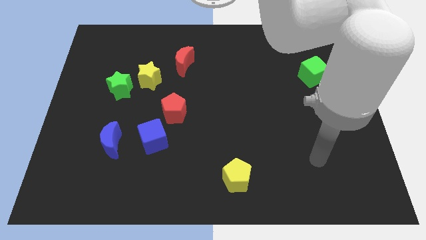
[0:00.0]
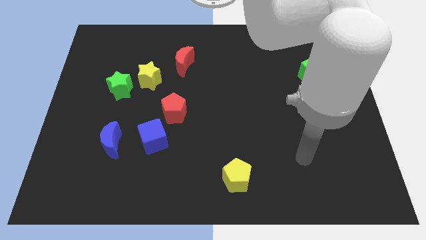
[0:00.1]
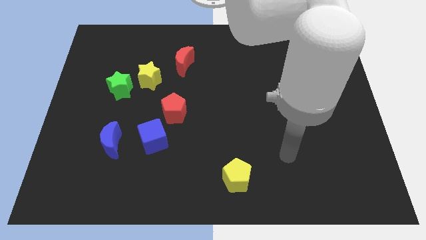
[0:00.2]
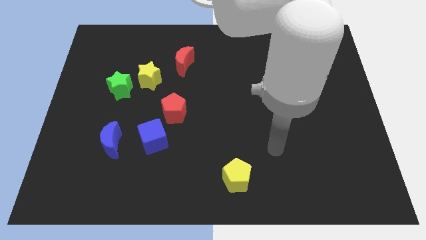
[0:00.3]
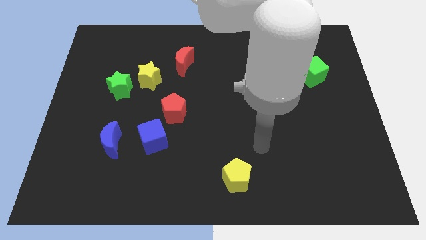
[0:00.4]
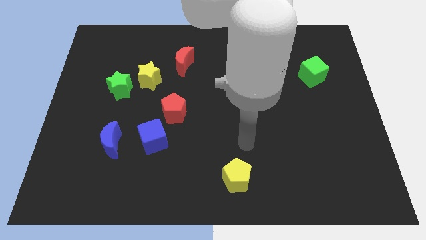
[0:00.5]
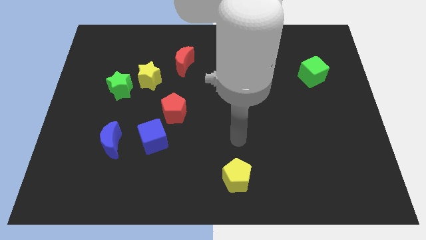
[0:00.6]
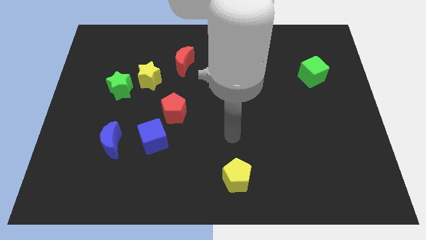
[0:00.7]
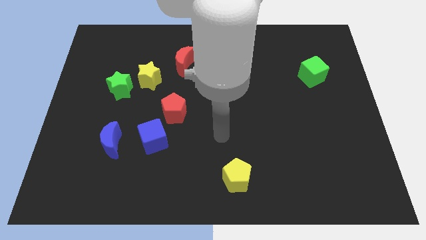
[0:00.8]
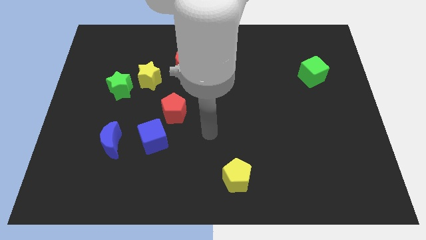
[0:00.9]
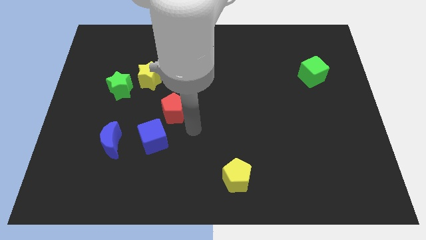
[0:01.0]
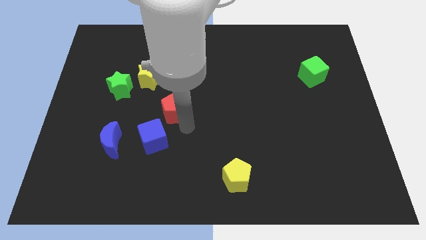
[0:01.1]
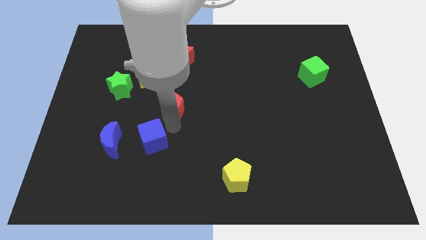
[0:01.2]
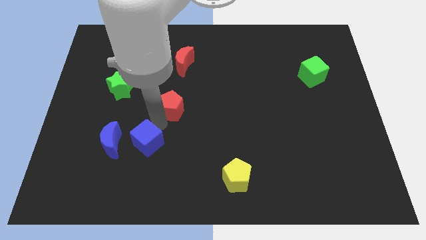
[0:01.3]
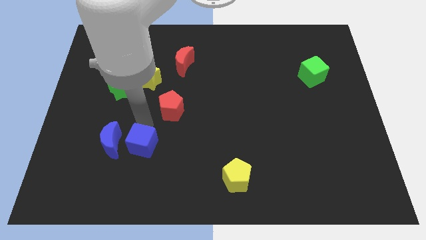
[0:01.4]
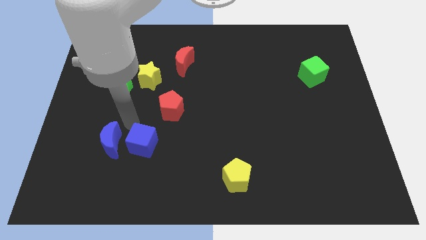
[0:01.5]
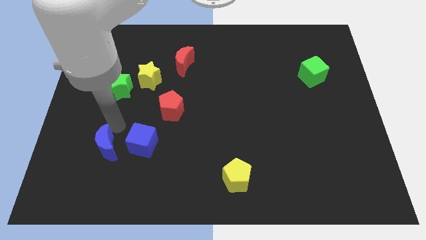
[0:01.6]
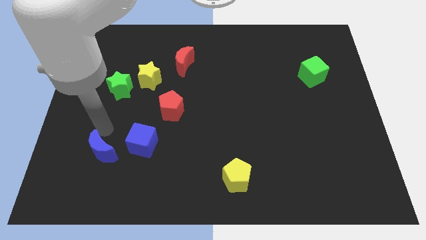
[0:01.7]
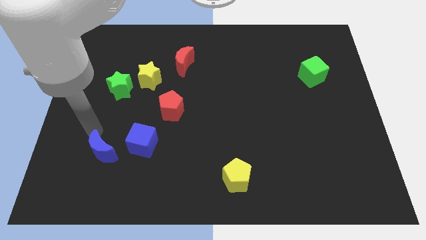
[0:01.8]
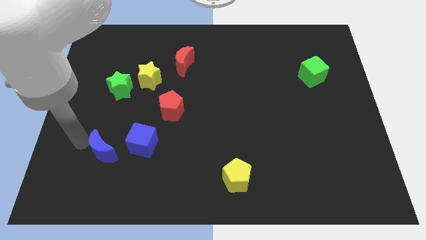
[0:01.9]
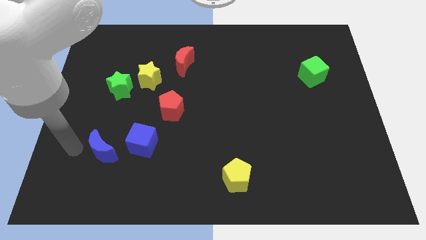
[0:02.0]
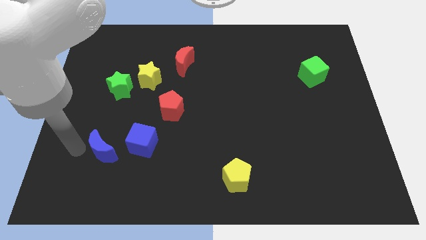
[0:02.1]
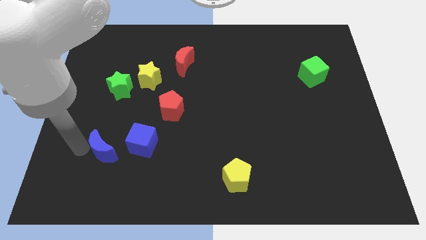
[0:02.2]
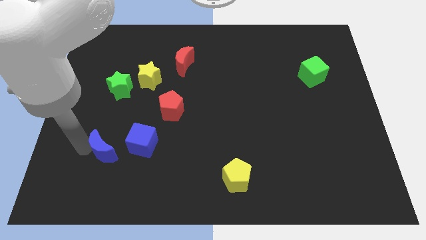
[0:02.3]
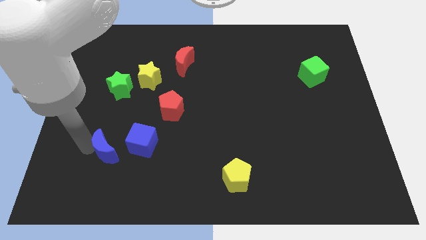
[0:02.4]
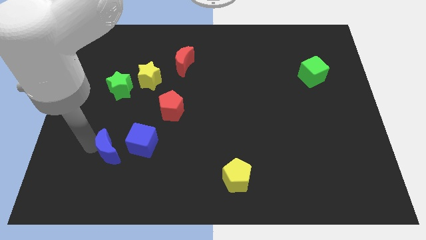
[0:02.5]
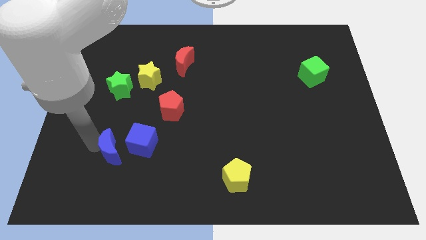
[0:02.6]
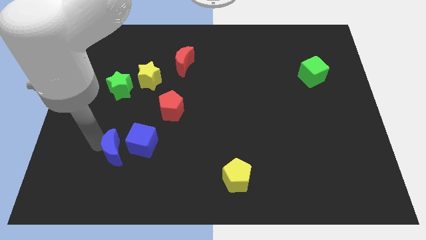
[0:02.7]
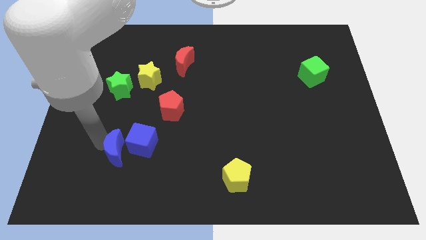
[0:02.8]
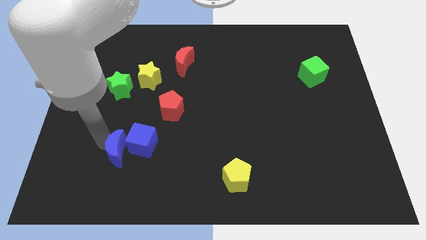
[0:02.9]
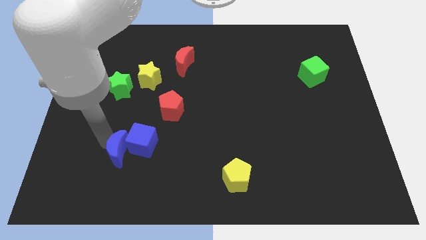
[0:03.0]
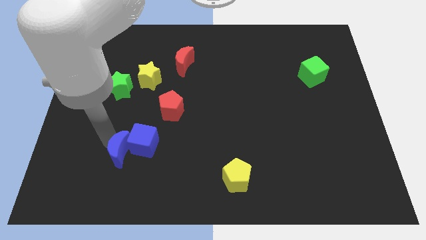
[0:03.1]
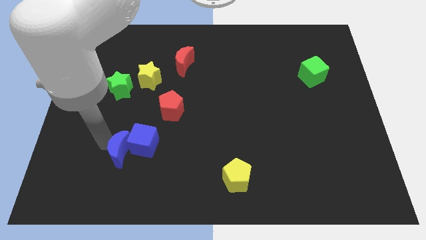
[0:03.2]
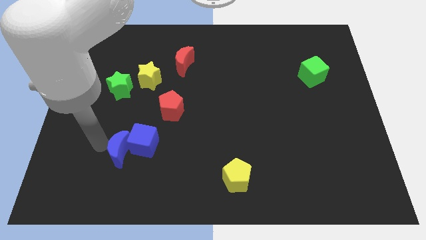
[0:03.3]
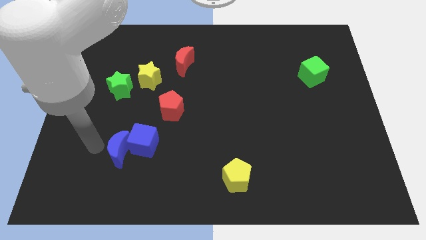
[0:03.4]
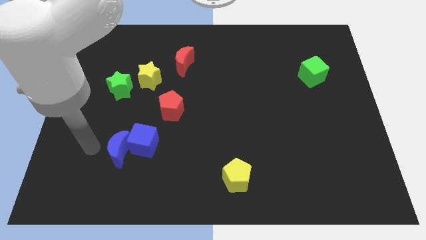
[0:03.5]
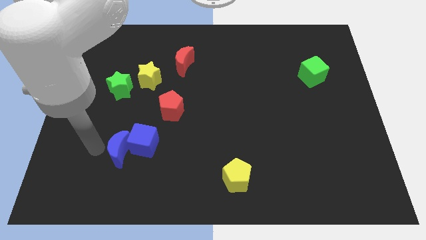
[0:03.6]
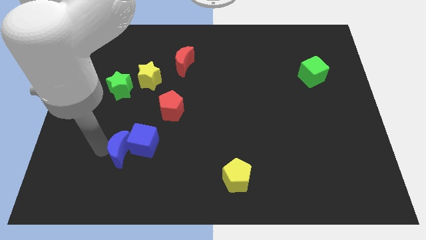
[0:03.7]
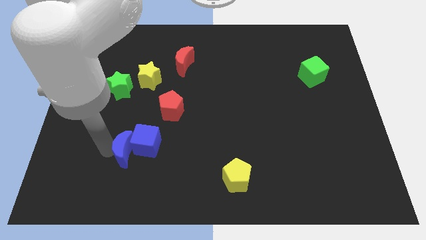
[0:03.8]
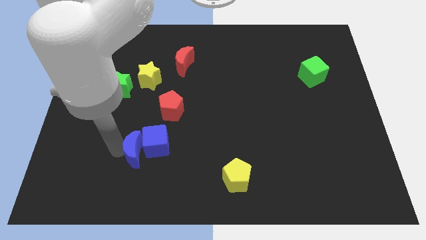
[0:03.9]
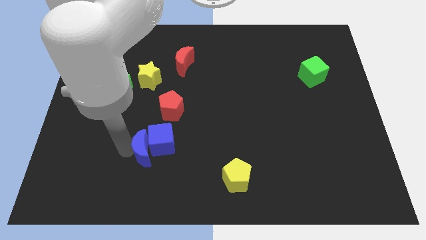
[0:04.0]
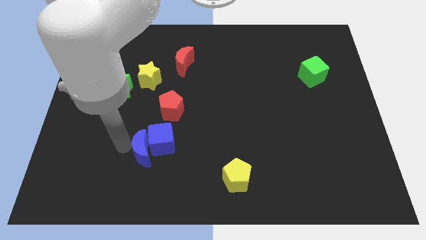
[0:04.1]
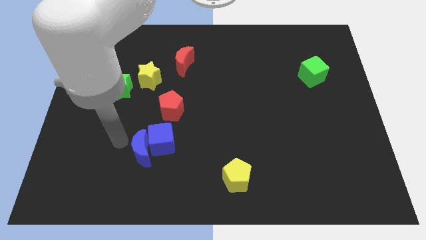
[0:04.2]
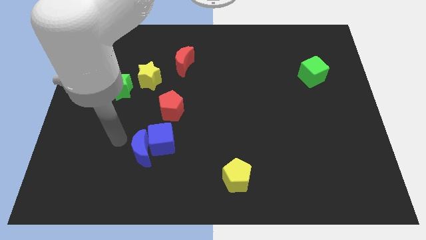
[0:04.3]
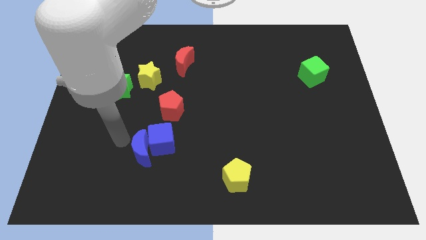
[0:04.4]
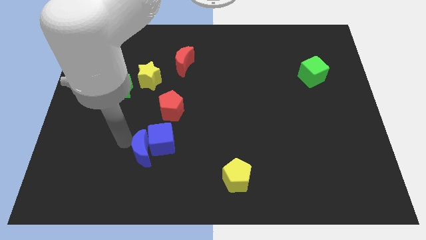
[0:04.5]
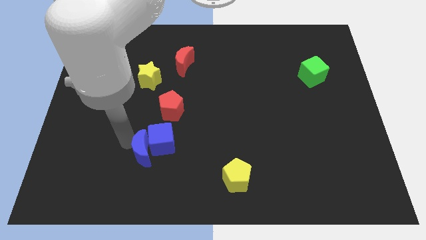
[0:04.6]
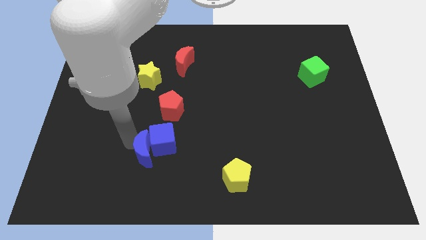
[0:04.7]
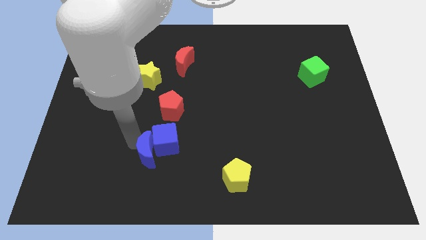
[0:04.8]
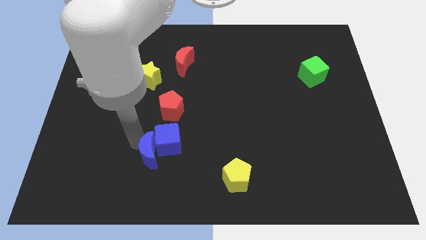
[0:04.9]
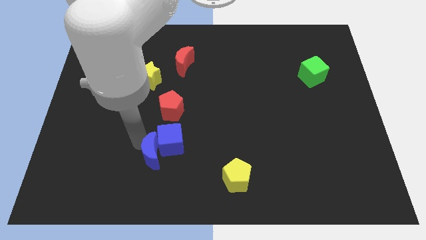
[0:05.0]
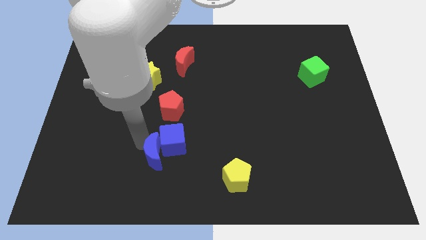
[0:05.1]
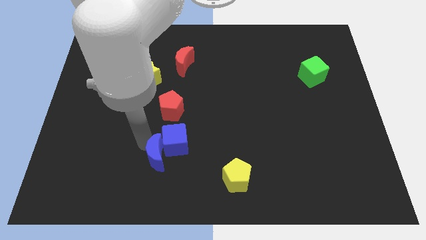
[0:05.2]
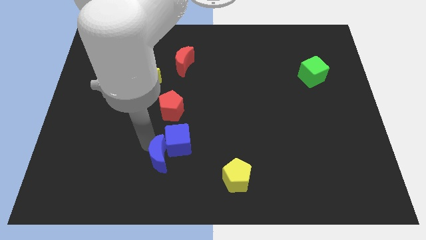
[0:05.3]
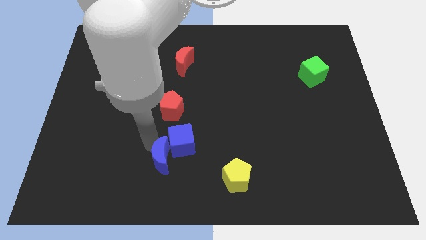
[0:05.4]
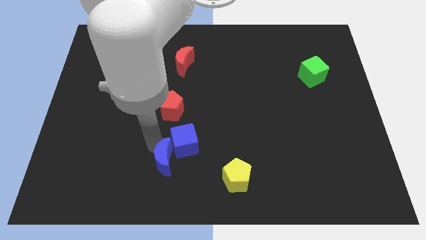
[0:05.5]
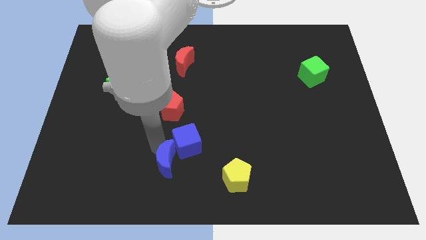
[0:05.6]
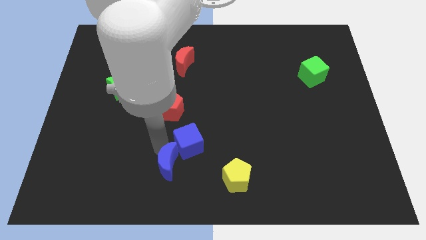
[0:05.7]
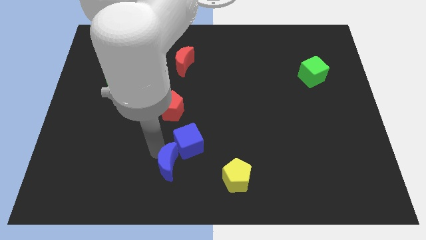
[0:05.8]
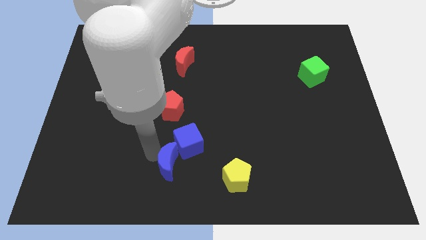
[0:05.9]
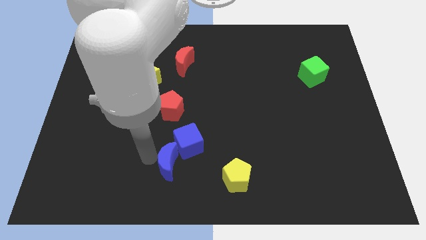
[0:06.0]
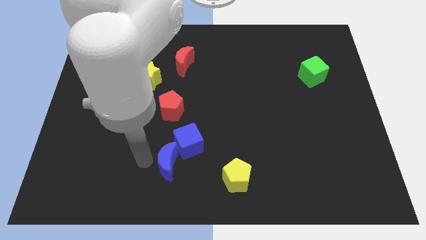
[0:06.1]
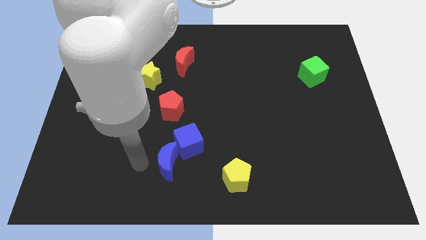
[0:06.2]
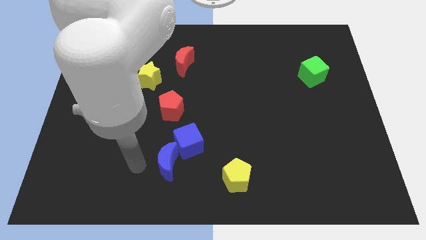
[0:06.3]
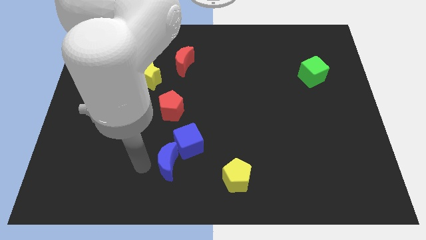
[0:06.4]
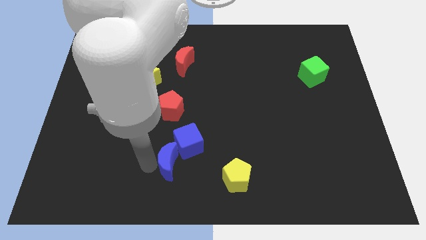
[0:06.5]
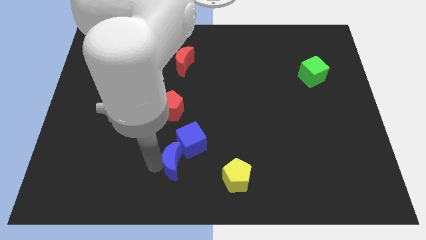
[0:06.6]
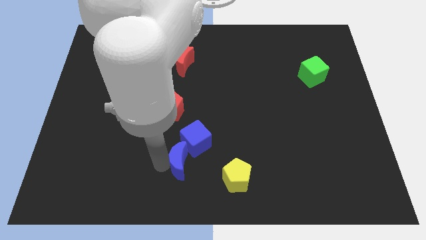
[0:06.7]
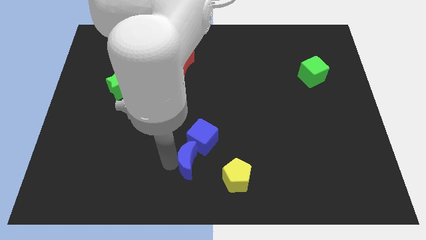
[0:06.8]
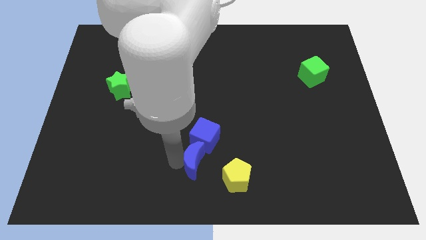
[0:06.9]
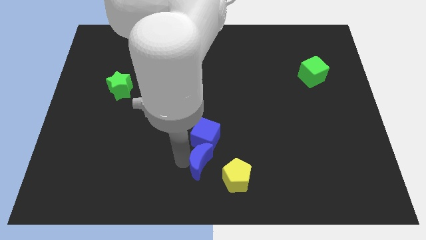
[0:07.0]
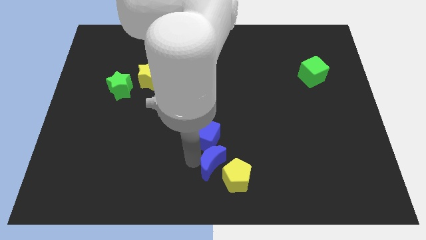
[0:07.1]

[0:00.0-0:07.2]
move the blue moon to the yellow pentagon
